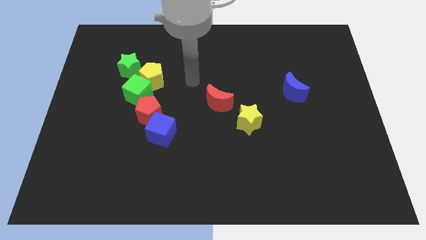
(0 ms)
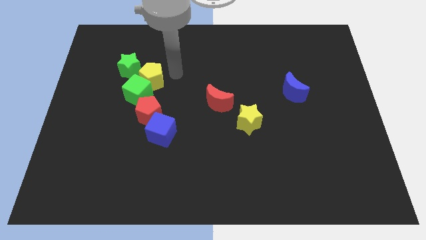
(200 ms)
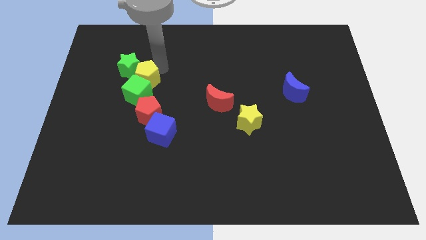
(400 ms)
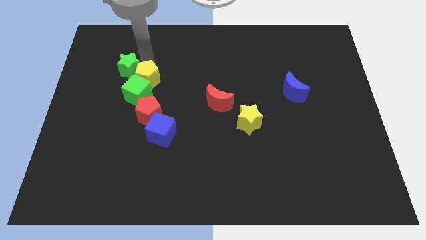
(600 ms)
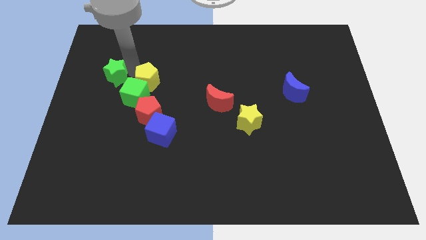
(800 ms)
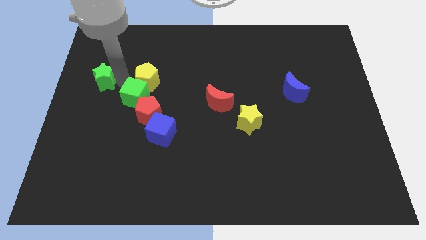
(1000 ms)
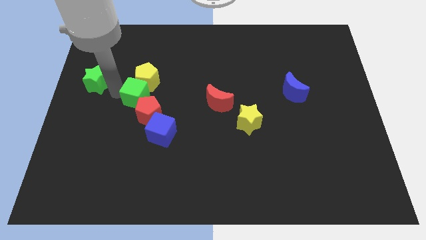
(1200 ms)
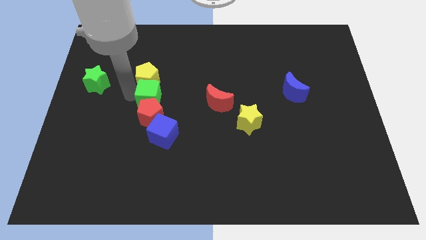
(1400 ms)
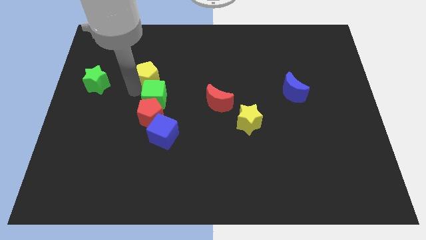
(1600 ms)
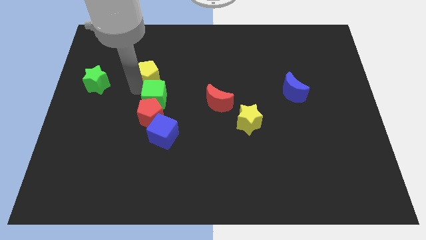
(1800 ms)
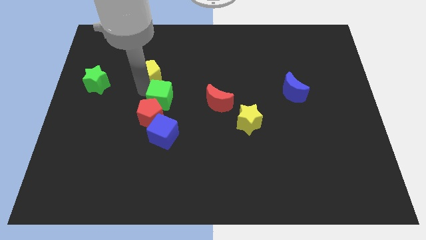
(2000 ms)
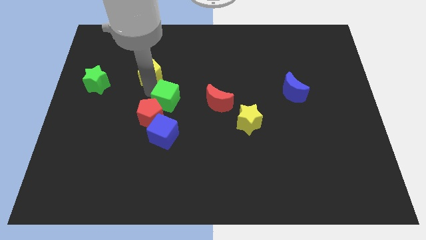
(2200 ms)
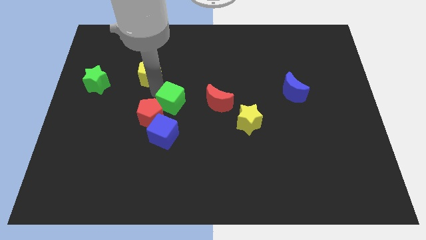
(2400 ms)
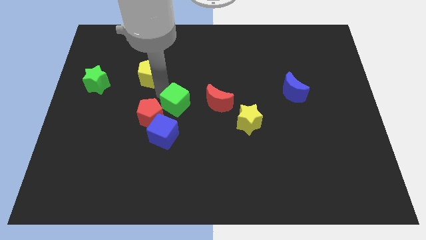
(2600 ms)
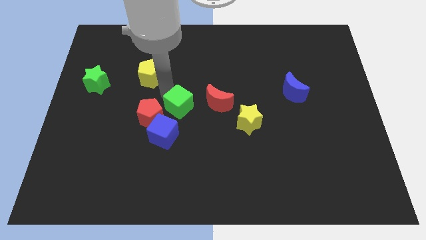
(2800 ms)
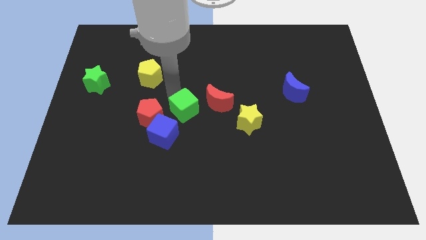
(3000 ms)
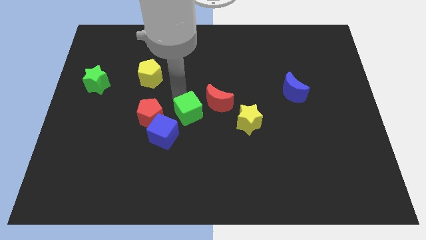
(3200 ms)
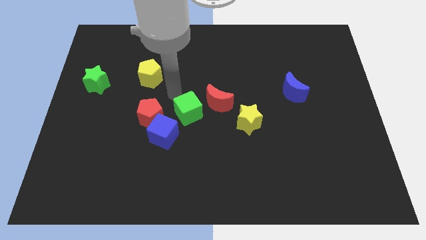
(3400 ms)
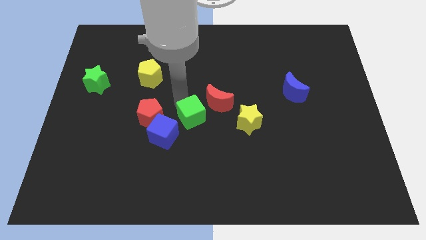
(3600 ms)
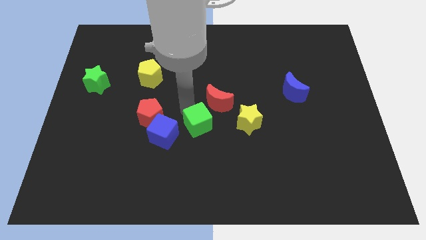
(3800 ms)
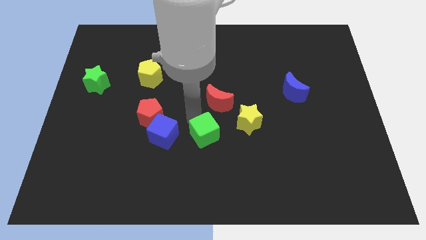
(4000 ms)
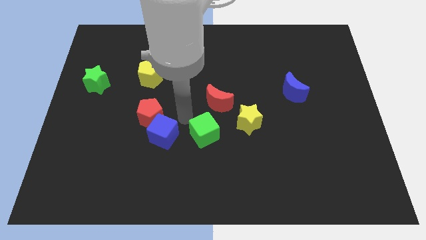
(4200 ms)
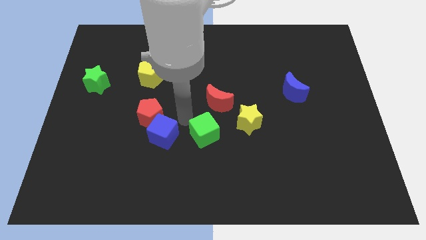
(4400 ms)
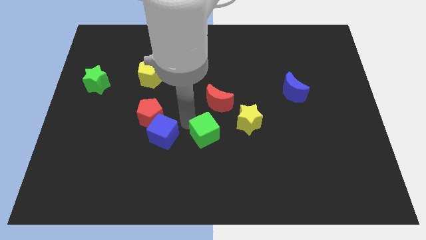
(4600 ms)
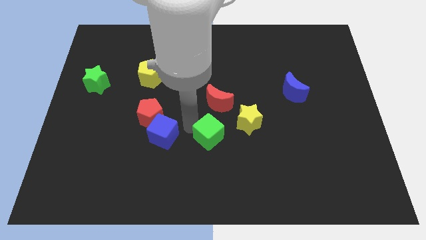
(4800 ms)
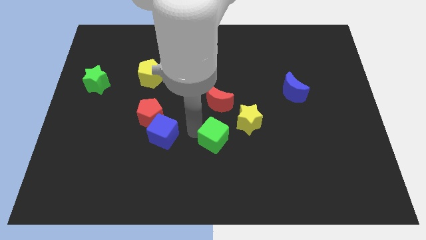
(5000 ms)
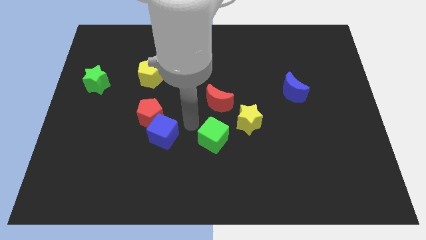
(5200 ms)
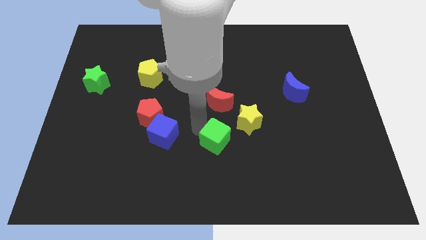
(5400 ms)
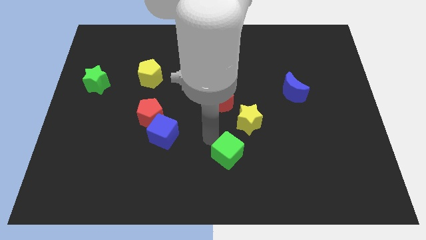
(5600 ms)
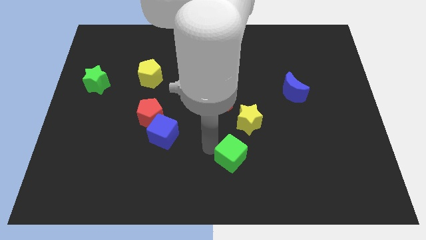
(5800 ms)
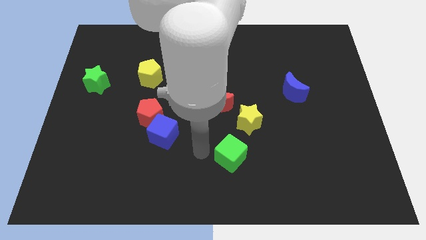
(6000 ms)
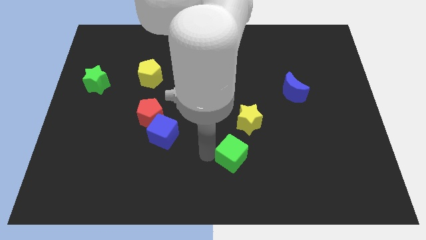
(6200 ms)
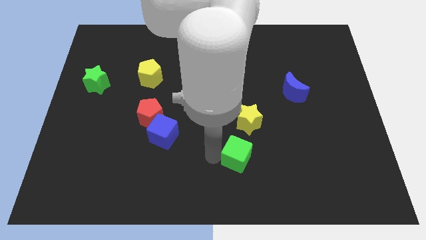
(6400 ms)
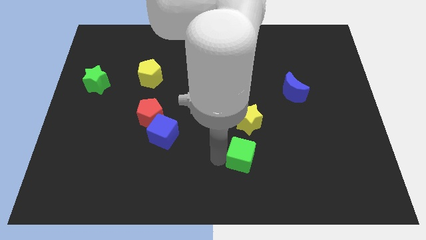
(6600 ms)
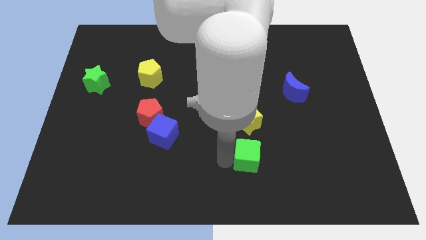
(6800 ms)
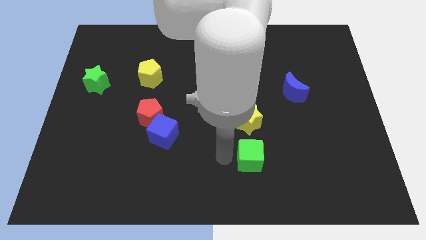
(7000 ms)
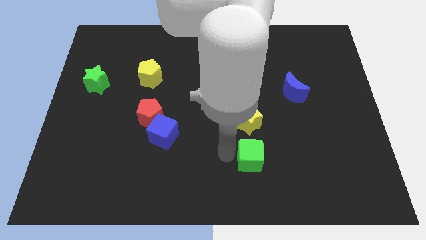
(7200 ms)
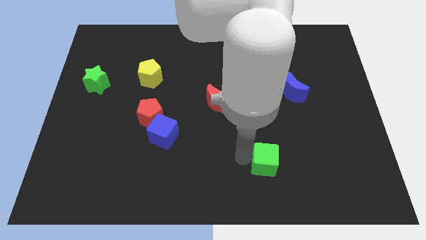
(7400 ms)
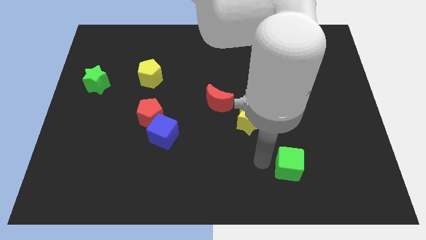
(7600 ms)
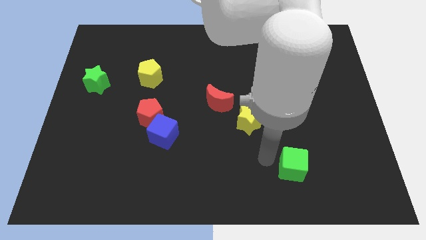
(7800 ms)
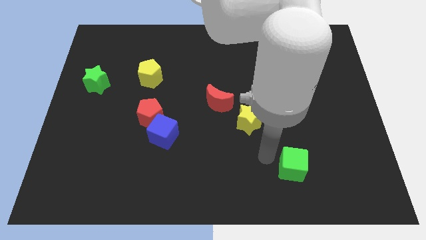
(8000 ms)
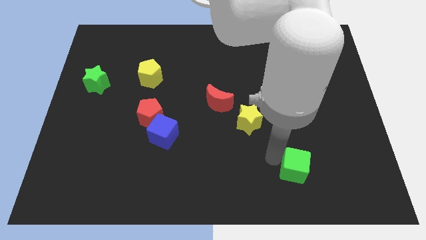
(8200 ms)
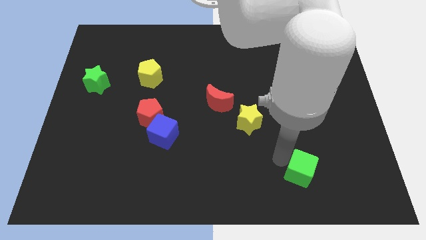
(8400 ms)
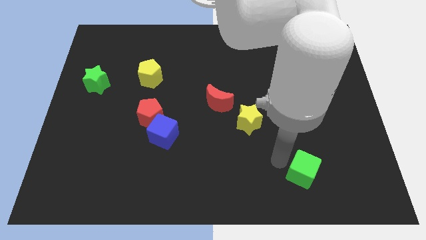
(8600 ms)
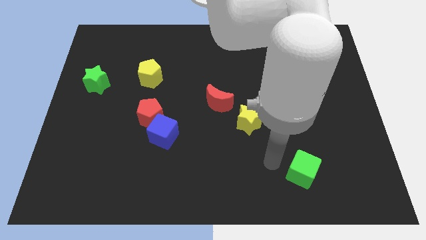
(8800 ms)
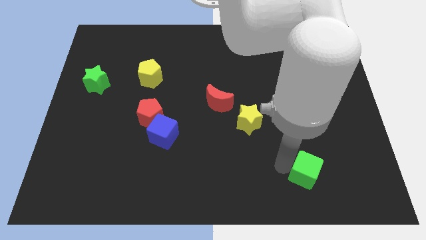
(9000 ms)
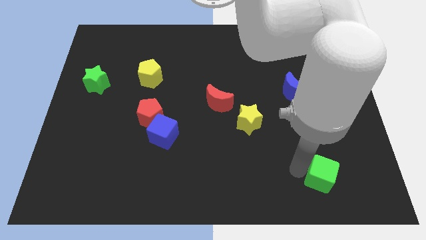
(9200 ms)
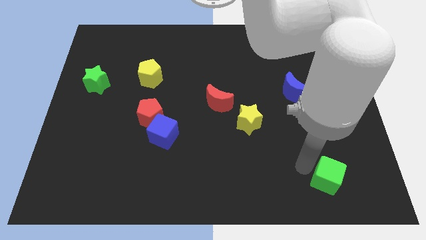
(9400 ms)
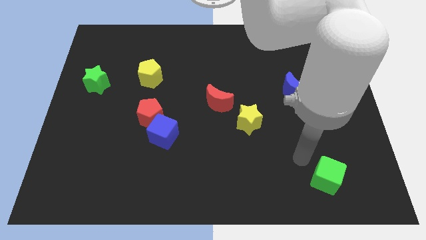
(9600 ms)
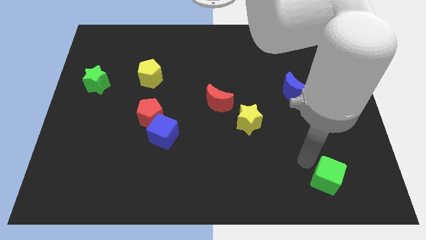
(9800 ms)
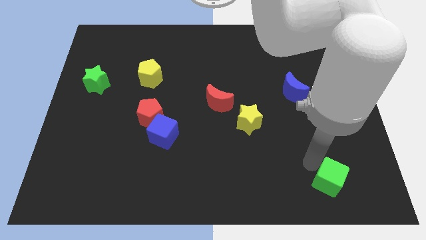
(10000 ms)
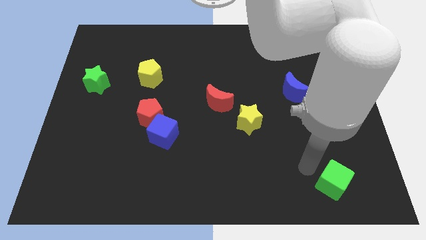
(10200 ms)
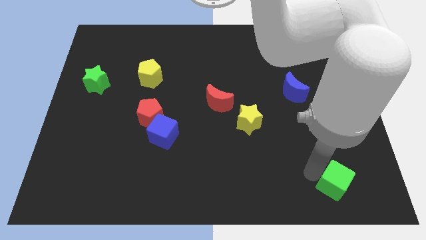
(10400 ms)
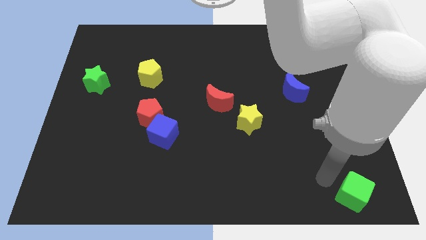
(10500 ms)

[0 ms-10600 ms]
push the green cube to the lower right corner

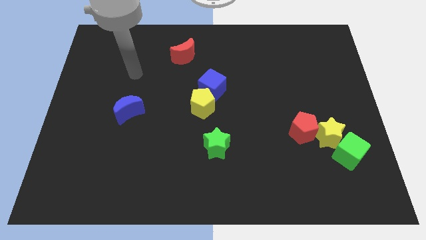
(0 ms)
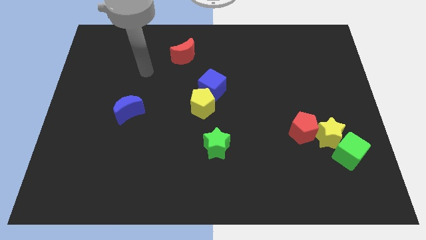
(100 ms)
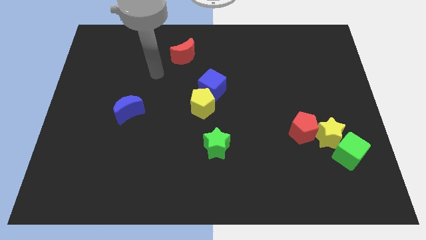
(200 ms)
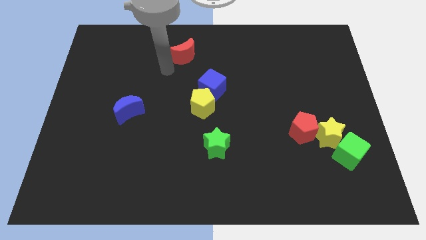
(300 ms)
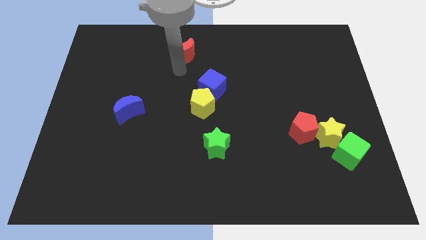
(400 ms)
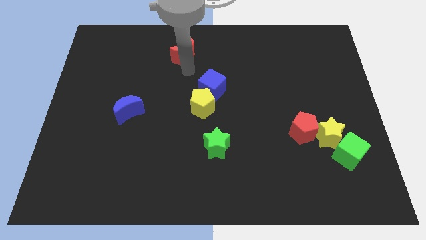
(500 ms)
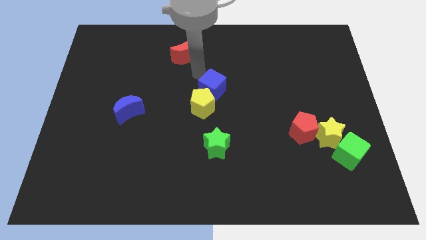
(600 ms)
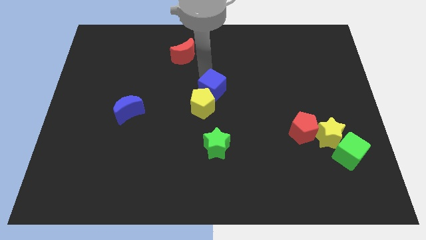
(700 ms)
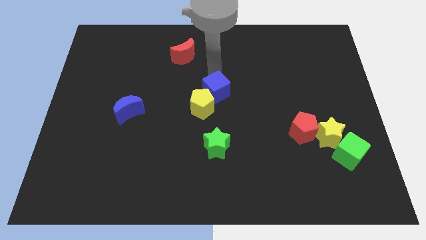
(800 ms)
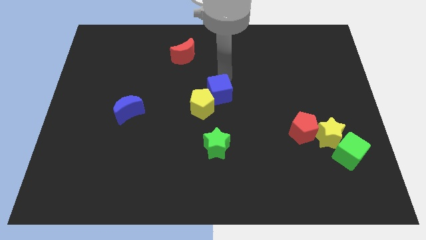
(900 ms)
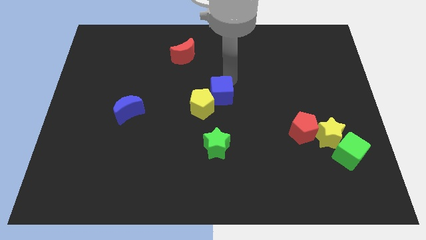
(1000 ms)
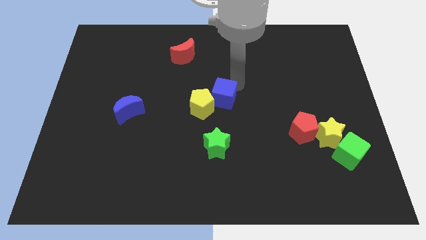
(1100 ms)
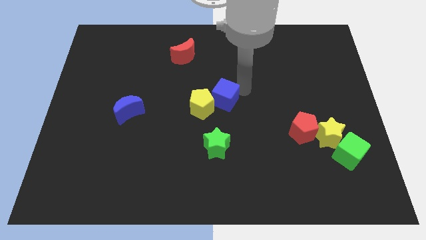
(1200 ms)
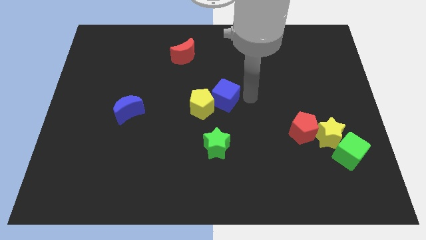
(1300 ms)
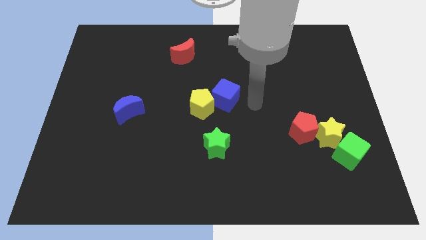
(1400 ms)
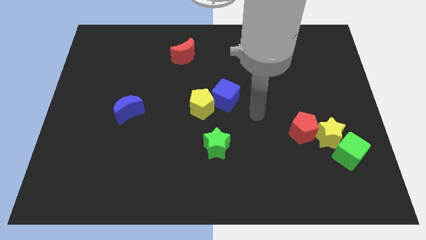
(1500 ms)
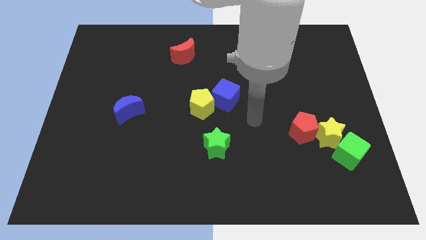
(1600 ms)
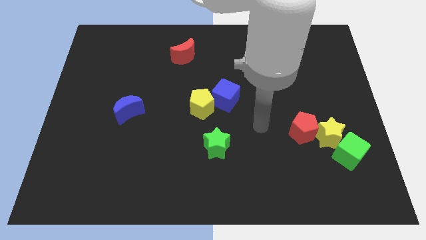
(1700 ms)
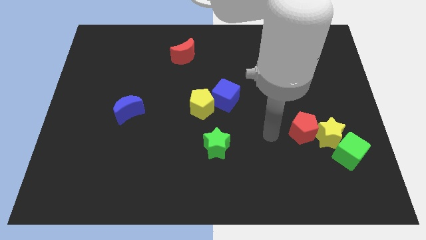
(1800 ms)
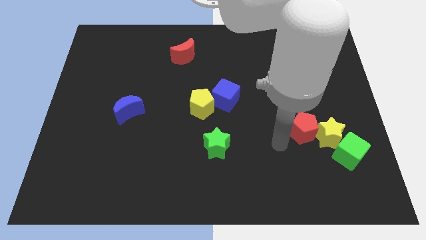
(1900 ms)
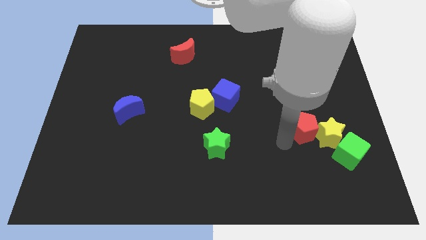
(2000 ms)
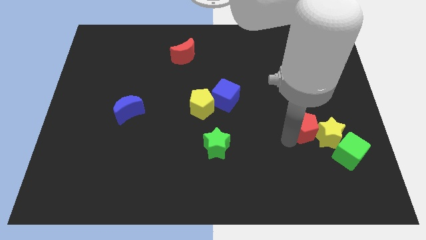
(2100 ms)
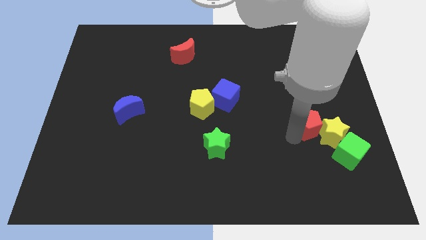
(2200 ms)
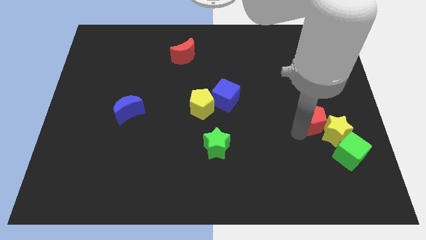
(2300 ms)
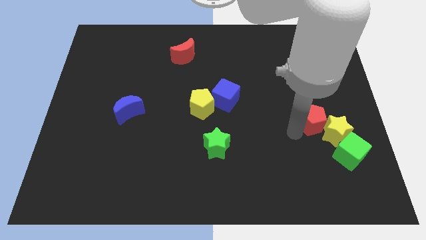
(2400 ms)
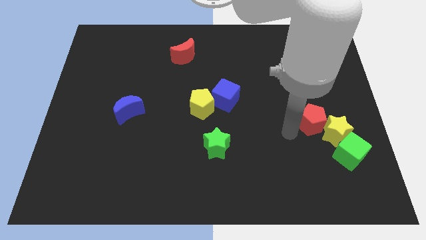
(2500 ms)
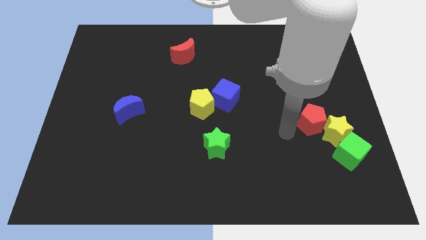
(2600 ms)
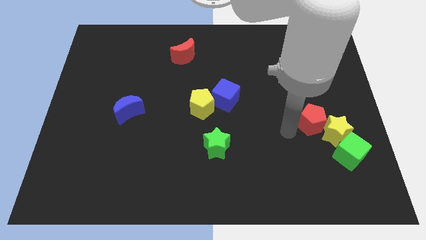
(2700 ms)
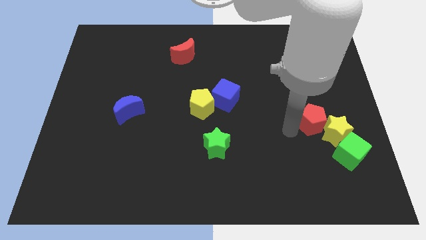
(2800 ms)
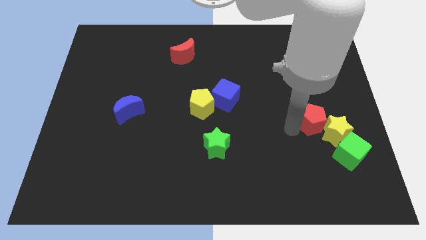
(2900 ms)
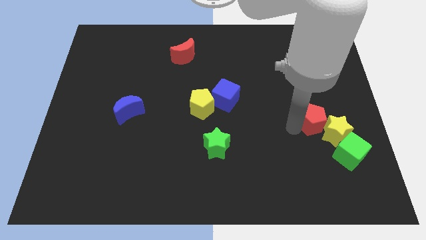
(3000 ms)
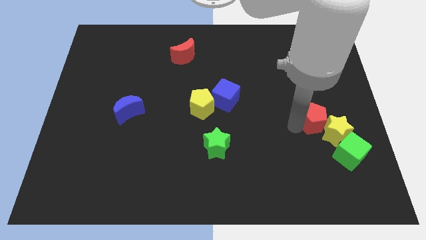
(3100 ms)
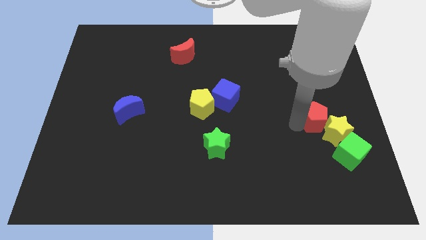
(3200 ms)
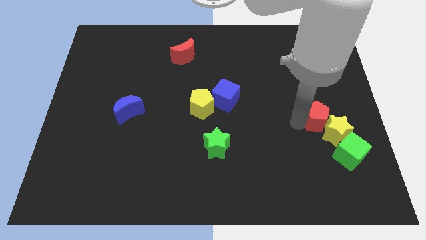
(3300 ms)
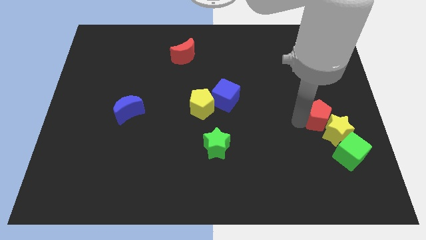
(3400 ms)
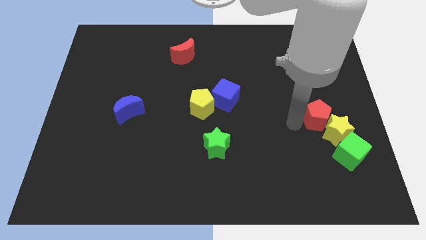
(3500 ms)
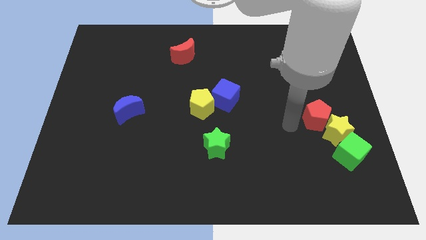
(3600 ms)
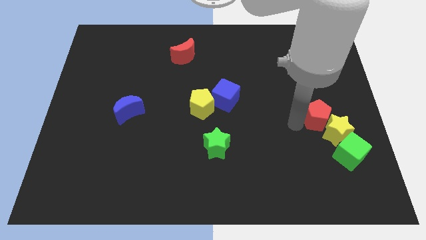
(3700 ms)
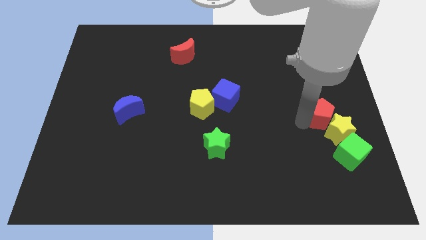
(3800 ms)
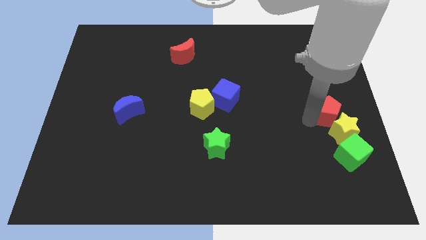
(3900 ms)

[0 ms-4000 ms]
move the red pentagon to the right side of the board
